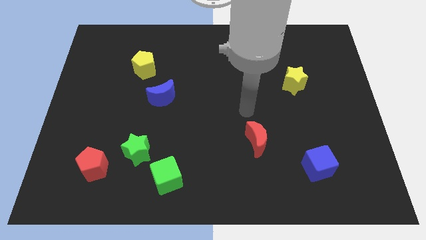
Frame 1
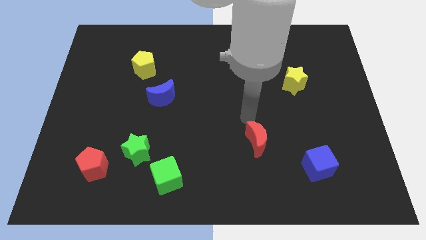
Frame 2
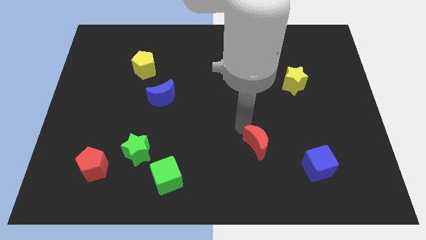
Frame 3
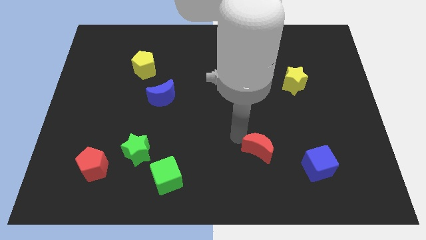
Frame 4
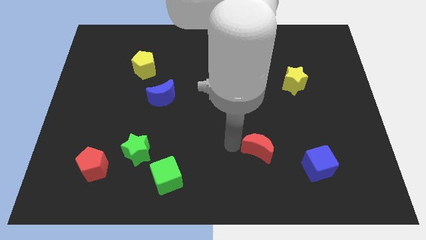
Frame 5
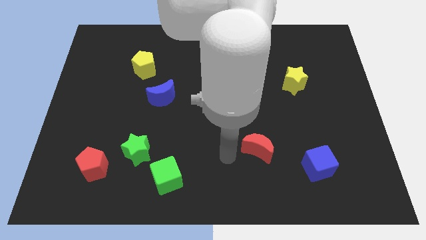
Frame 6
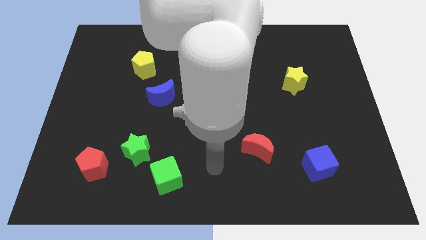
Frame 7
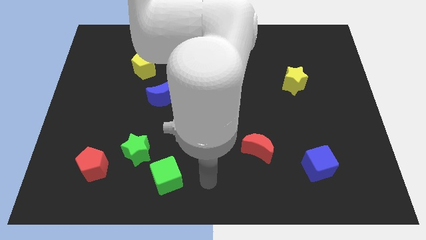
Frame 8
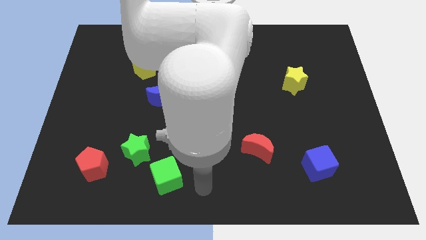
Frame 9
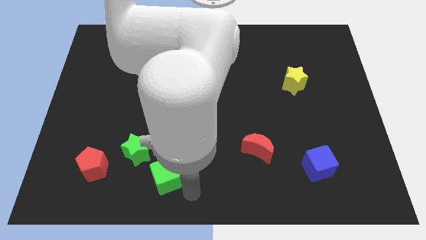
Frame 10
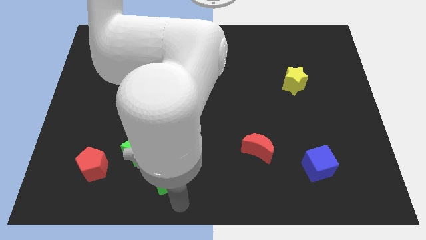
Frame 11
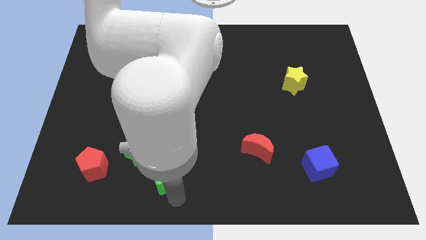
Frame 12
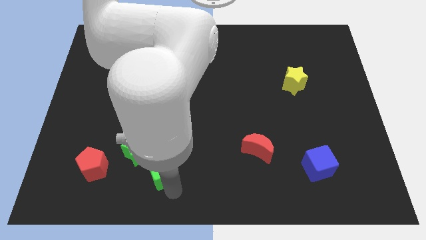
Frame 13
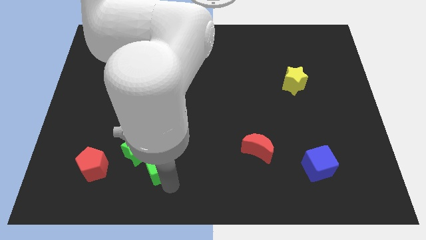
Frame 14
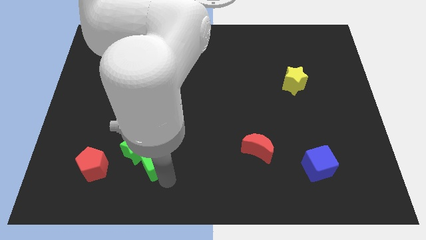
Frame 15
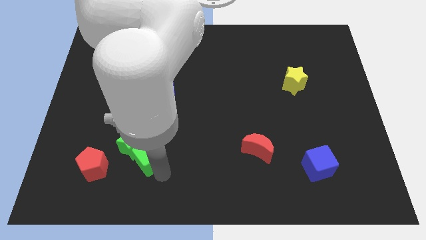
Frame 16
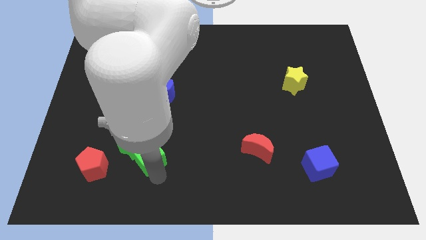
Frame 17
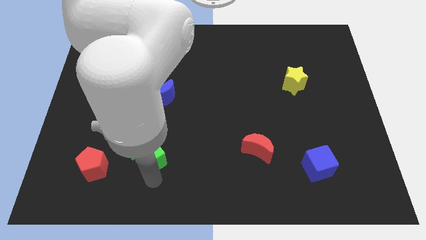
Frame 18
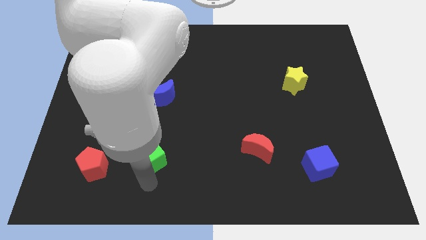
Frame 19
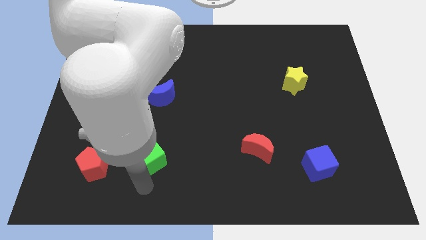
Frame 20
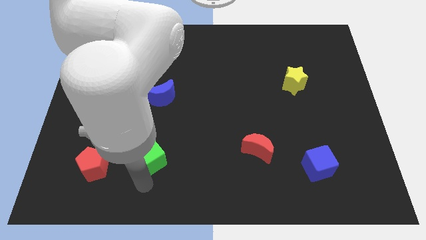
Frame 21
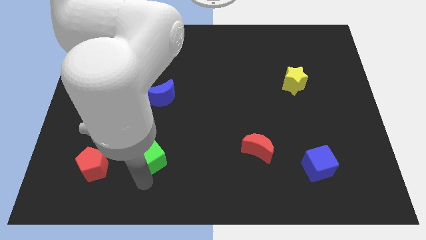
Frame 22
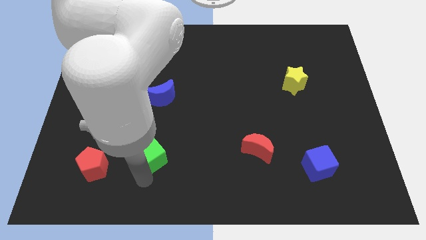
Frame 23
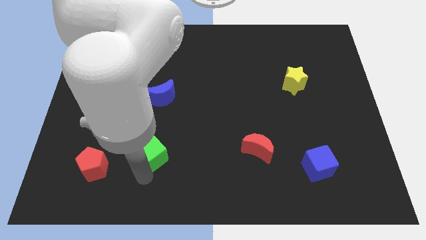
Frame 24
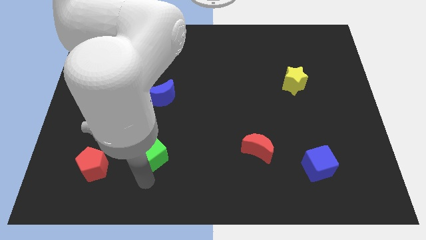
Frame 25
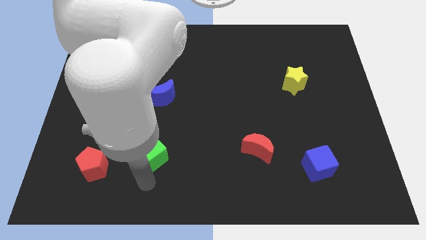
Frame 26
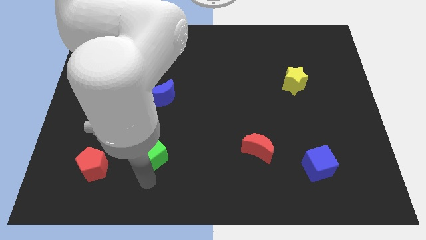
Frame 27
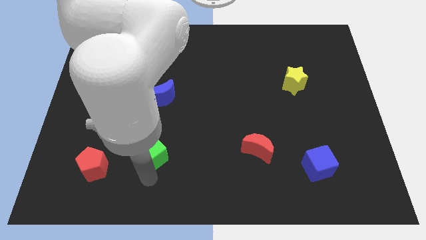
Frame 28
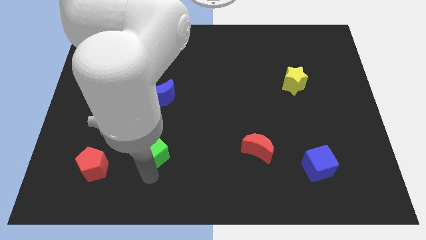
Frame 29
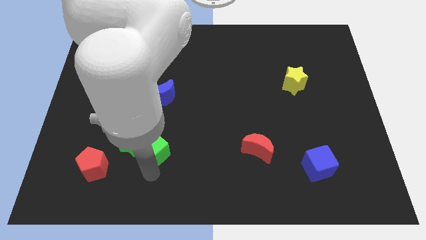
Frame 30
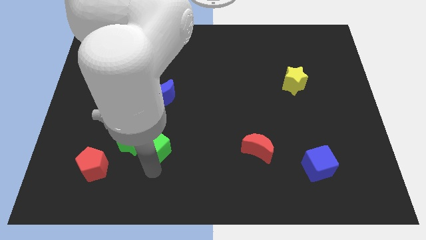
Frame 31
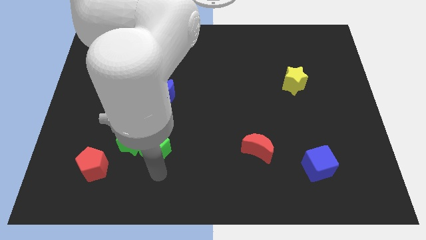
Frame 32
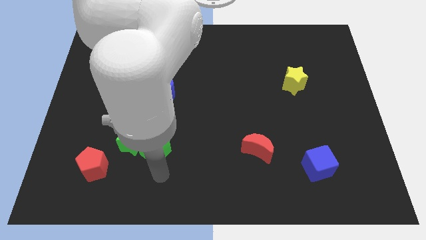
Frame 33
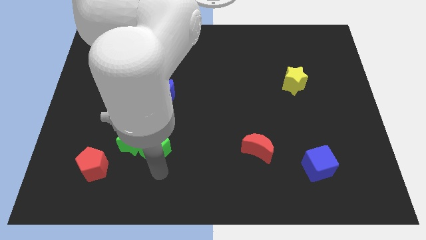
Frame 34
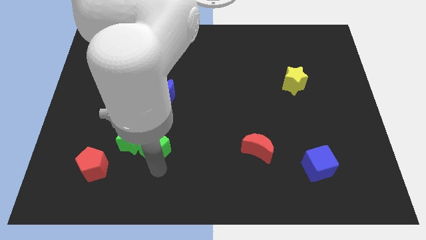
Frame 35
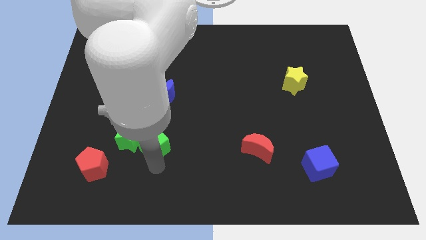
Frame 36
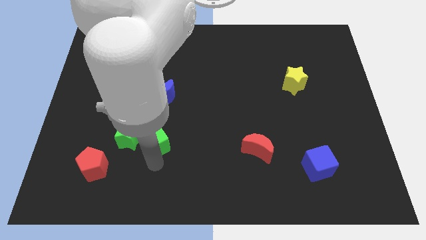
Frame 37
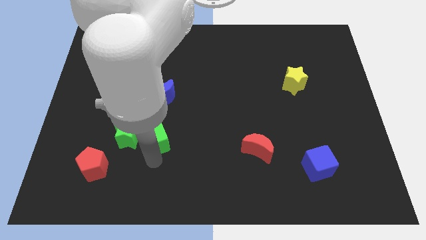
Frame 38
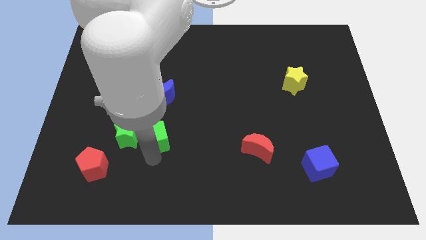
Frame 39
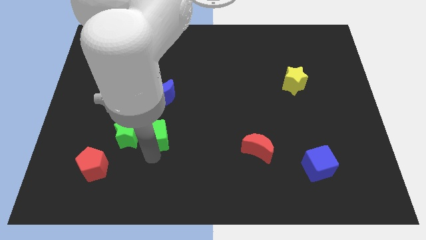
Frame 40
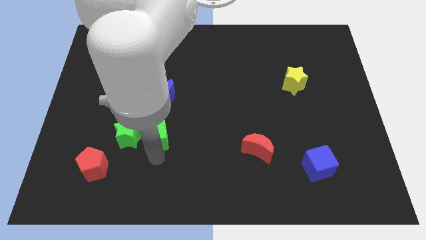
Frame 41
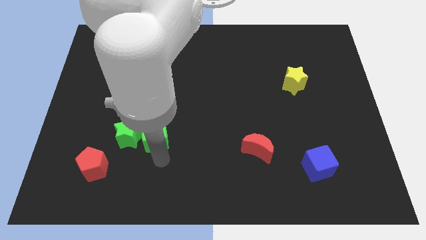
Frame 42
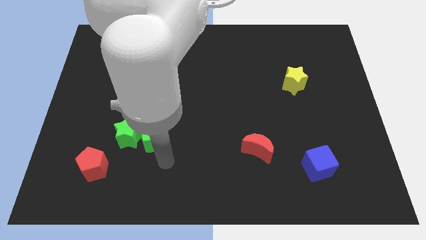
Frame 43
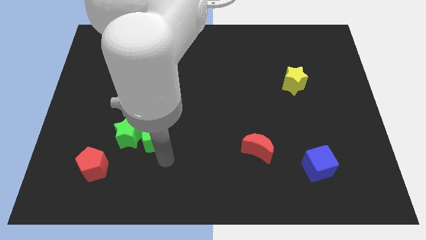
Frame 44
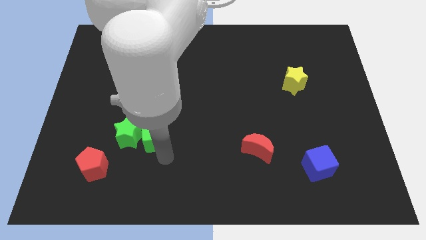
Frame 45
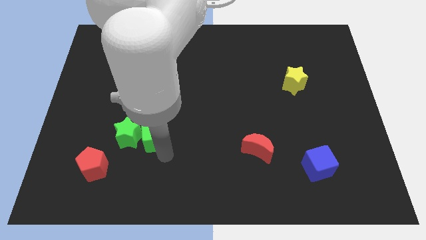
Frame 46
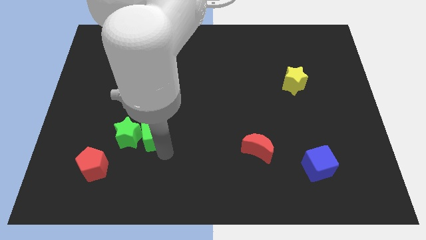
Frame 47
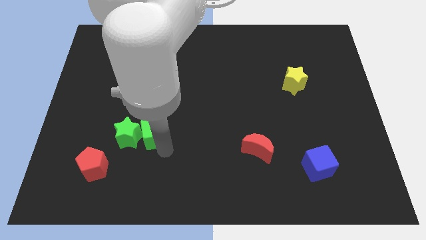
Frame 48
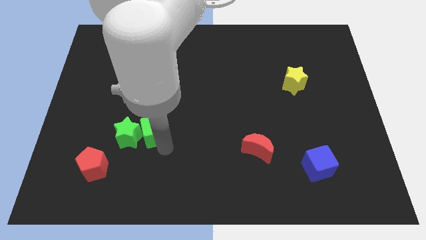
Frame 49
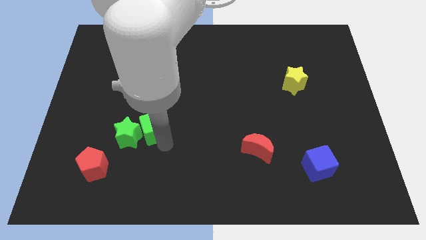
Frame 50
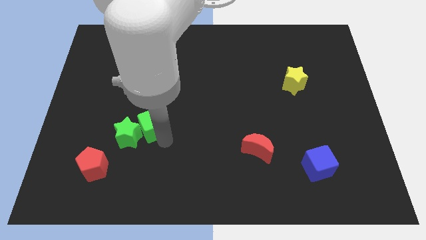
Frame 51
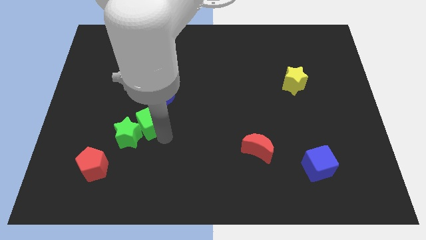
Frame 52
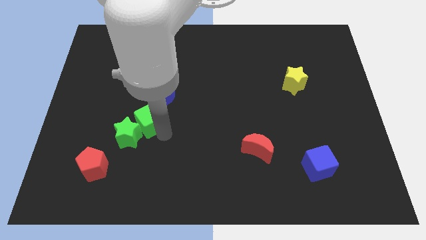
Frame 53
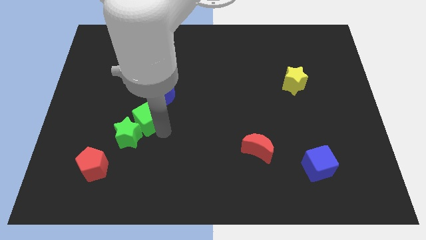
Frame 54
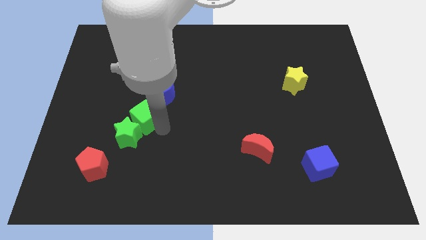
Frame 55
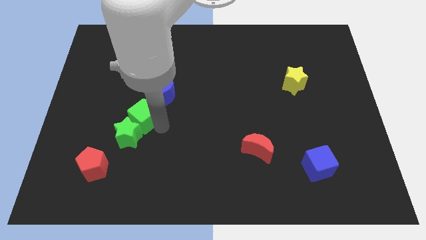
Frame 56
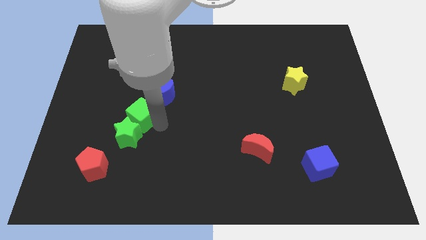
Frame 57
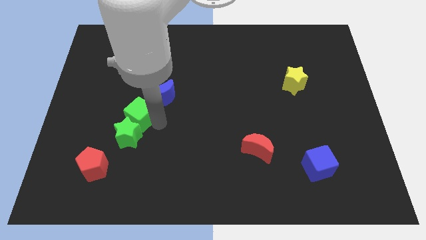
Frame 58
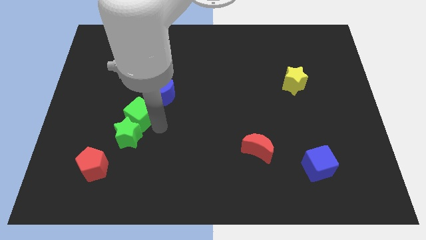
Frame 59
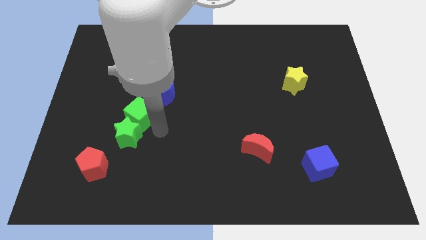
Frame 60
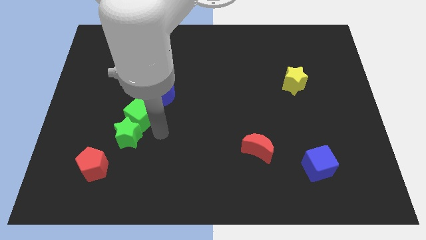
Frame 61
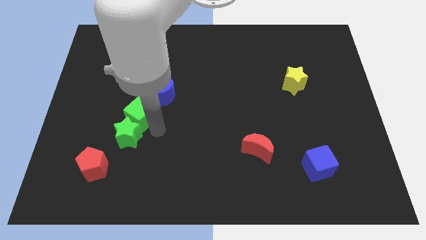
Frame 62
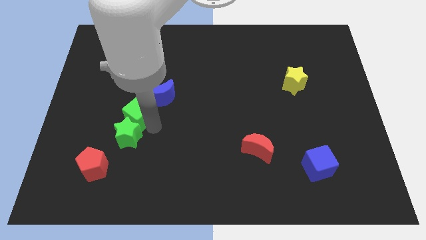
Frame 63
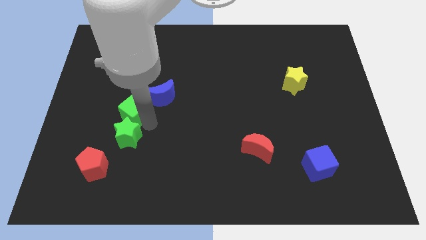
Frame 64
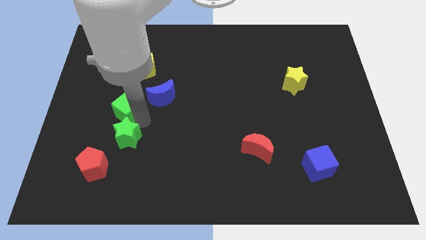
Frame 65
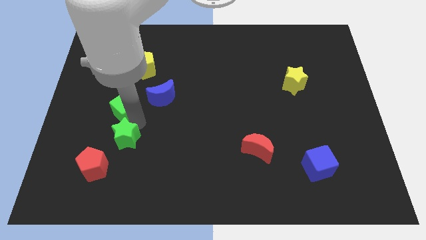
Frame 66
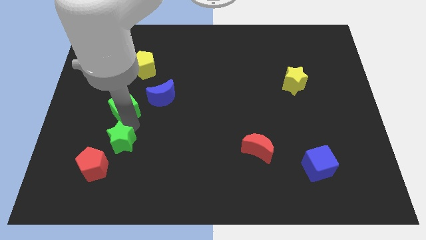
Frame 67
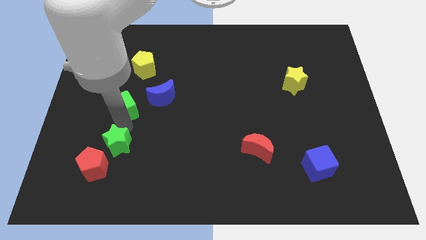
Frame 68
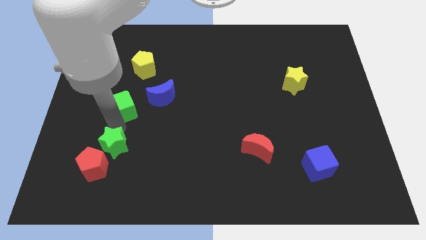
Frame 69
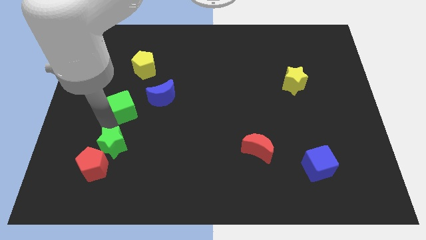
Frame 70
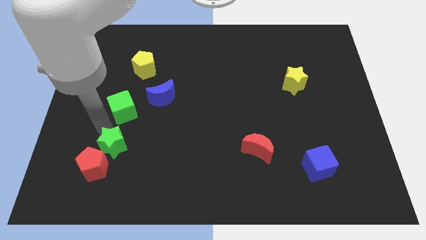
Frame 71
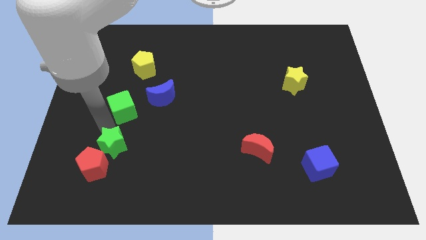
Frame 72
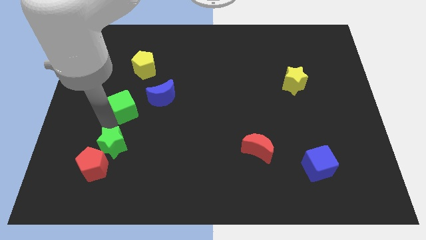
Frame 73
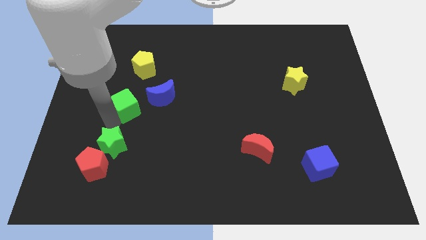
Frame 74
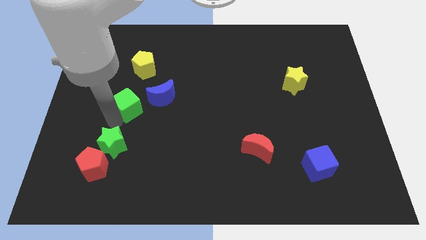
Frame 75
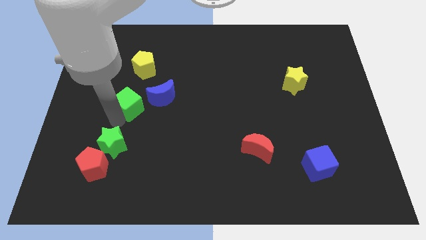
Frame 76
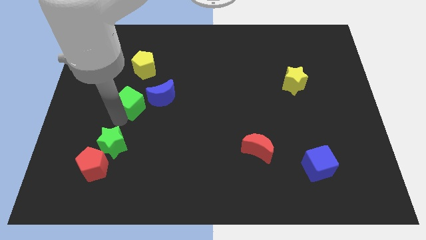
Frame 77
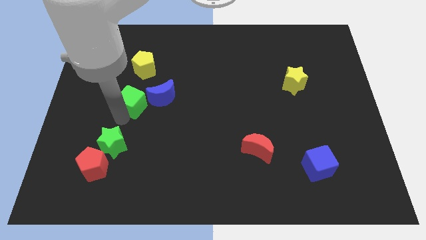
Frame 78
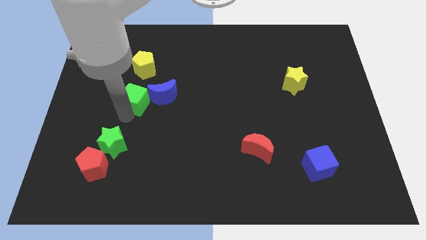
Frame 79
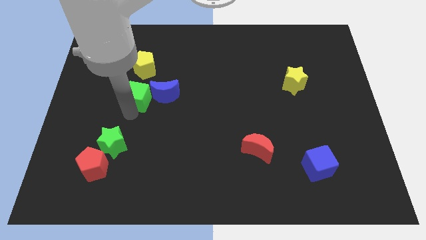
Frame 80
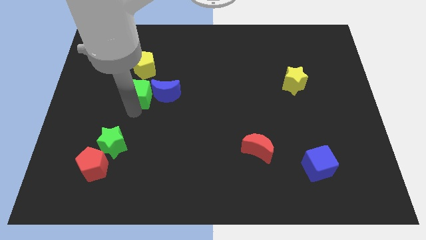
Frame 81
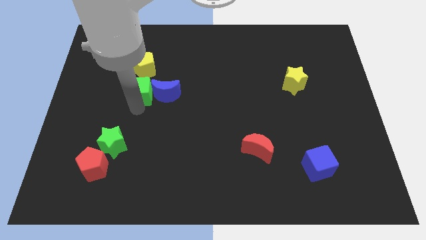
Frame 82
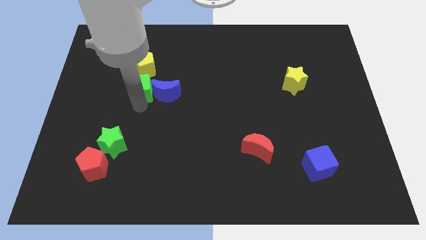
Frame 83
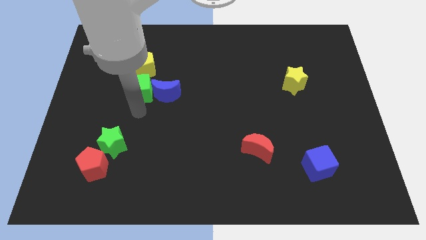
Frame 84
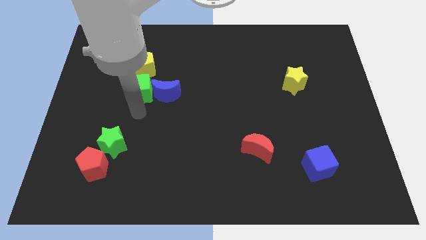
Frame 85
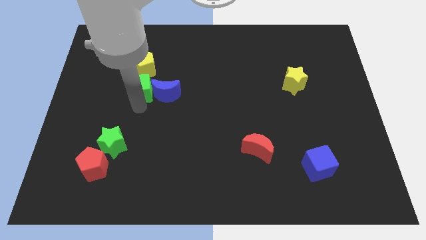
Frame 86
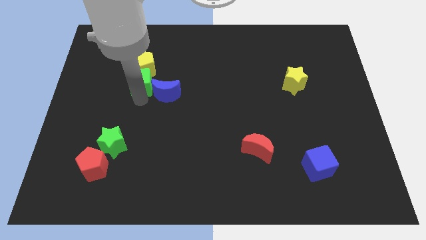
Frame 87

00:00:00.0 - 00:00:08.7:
move the green cube to the yellow pentagon
